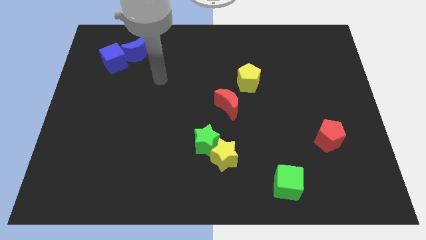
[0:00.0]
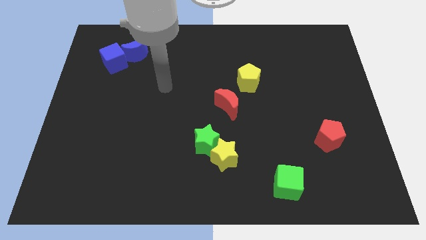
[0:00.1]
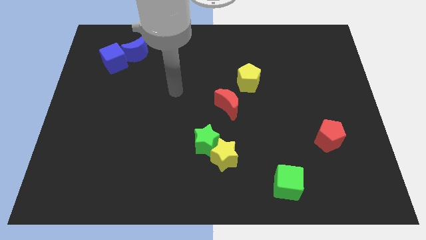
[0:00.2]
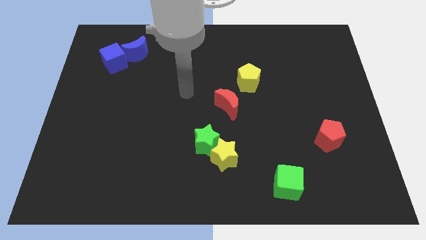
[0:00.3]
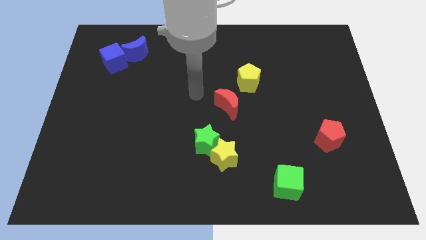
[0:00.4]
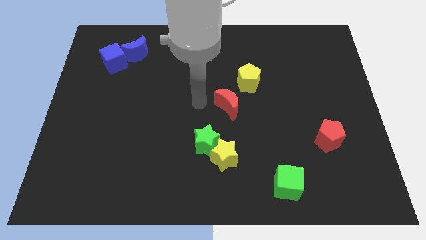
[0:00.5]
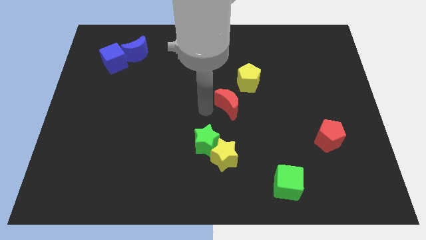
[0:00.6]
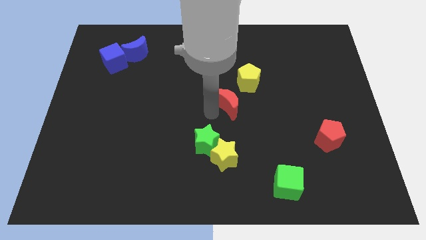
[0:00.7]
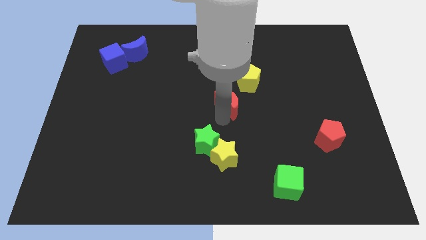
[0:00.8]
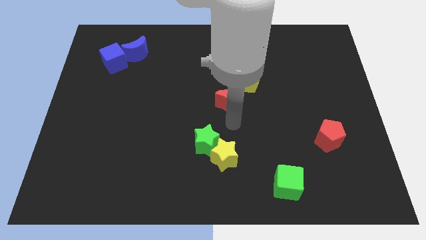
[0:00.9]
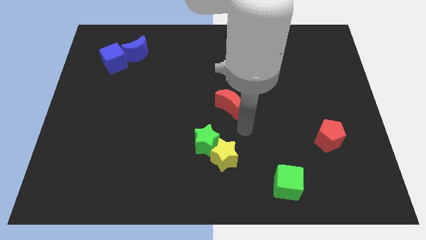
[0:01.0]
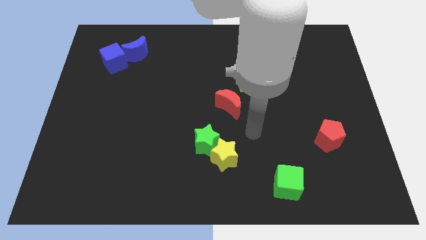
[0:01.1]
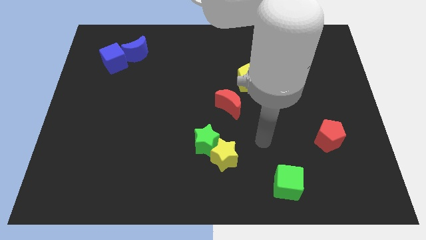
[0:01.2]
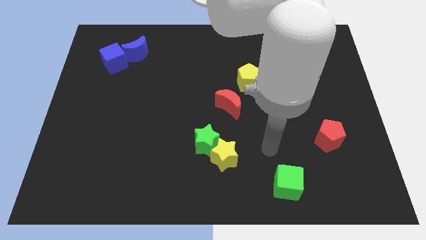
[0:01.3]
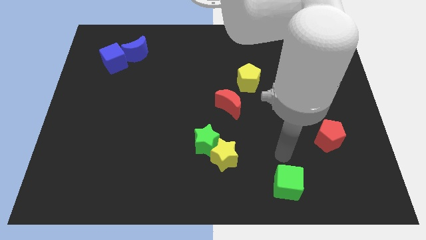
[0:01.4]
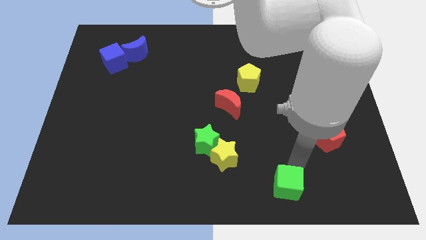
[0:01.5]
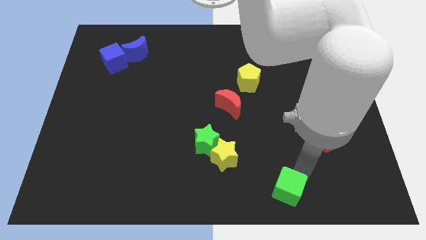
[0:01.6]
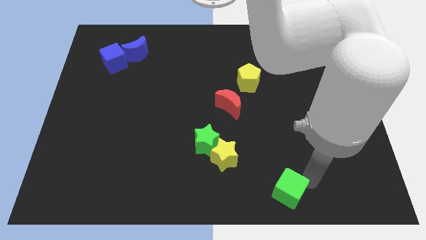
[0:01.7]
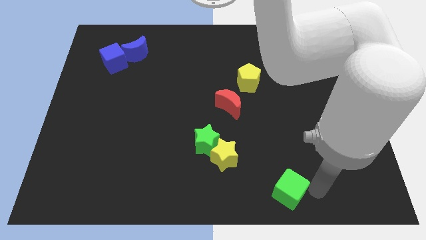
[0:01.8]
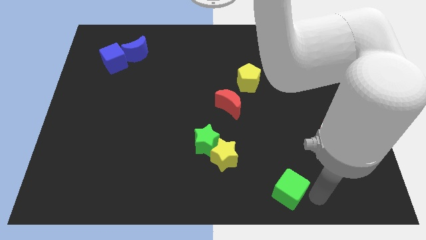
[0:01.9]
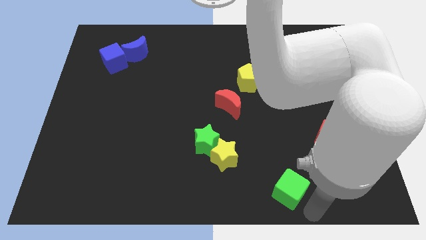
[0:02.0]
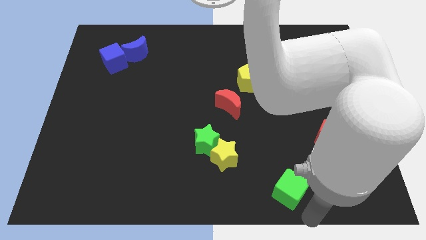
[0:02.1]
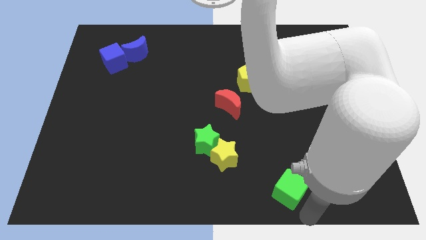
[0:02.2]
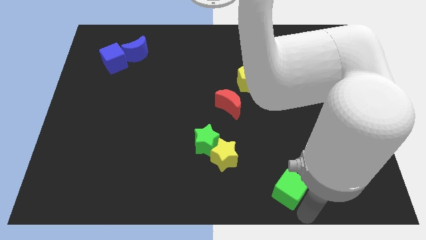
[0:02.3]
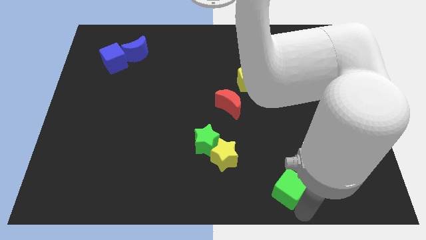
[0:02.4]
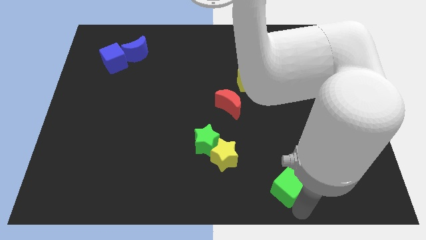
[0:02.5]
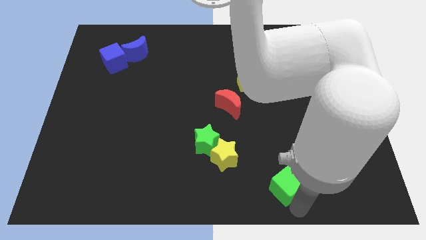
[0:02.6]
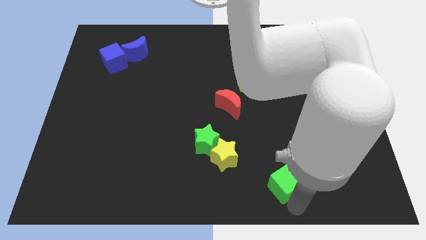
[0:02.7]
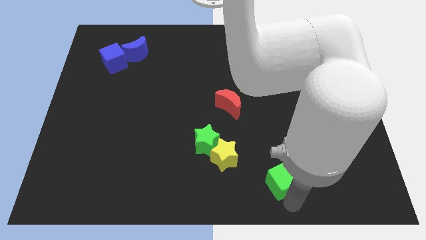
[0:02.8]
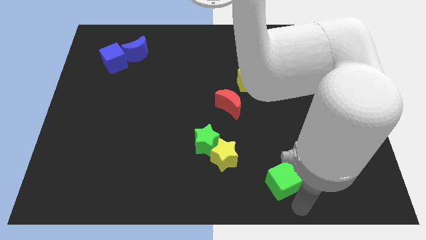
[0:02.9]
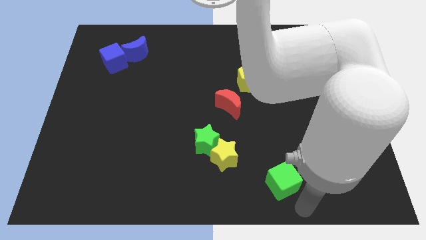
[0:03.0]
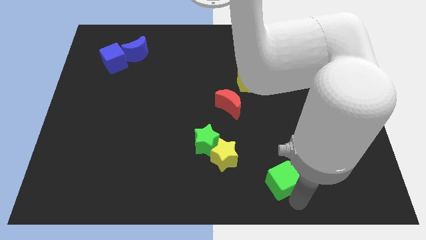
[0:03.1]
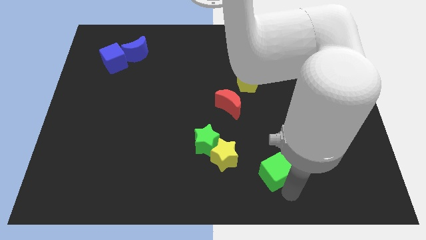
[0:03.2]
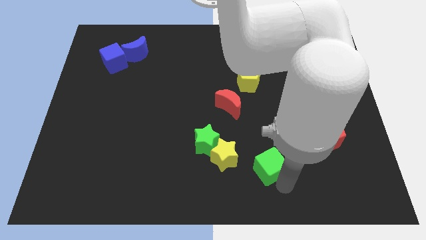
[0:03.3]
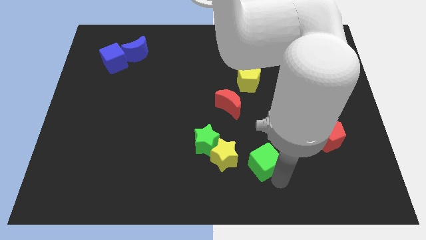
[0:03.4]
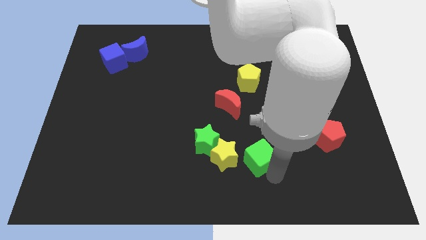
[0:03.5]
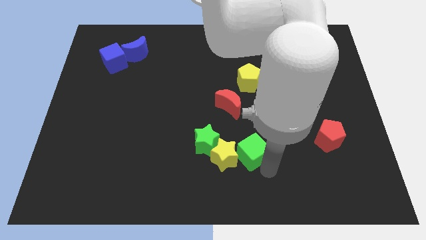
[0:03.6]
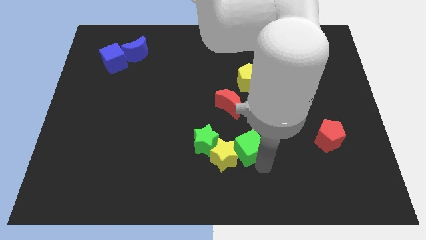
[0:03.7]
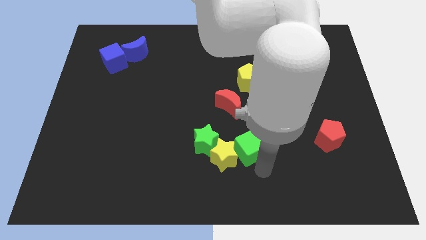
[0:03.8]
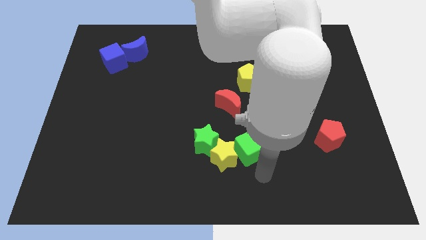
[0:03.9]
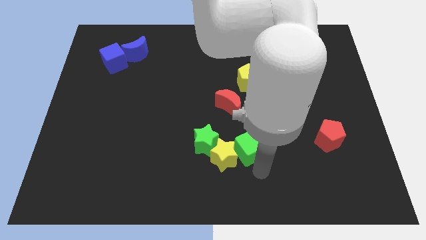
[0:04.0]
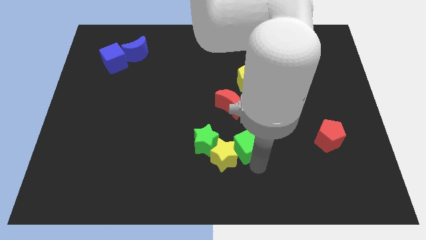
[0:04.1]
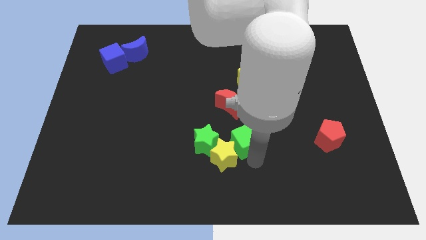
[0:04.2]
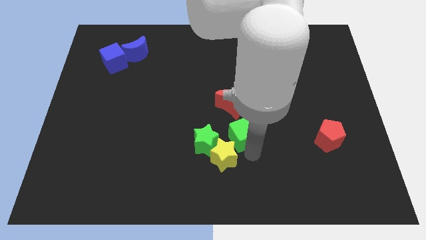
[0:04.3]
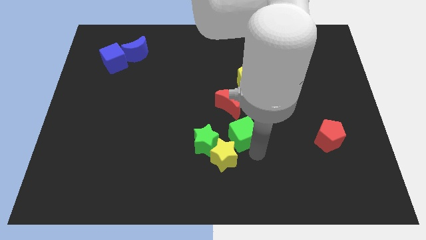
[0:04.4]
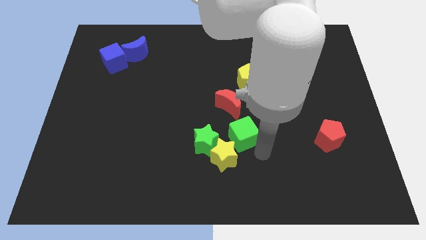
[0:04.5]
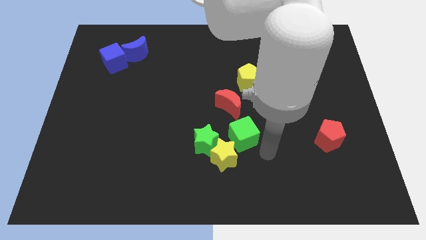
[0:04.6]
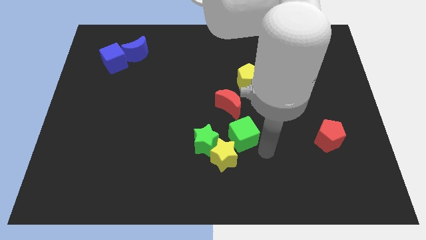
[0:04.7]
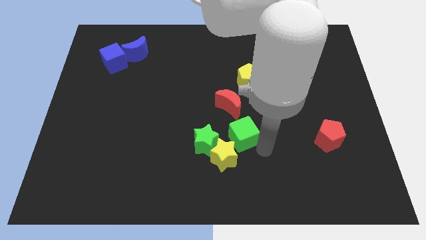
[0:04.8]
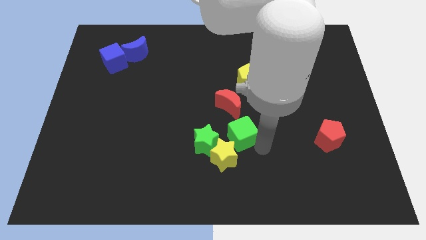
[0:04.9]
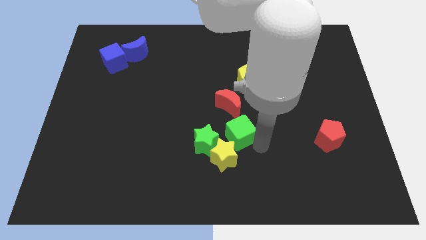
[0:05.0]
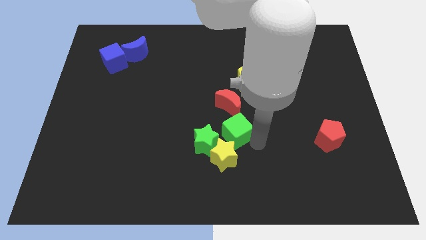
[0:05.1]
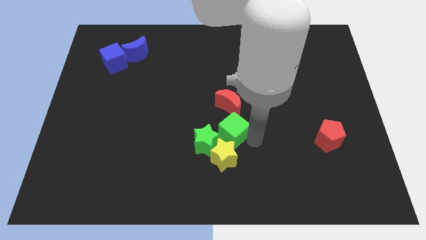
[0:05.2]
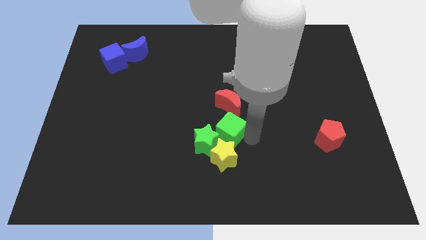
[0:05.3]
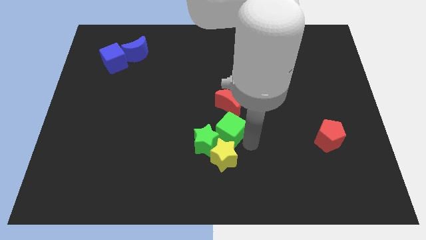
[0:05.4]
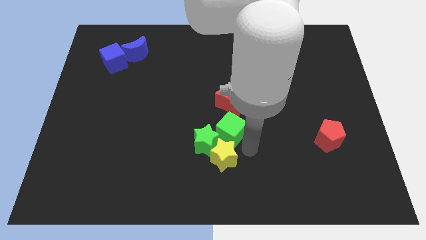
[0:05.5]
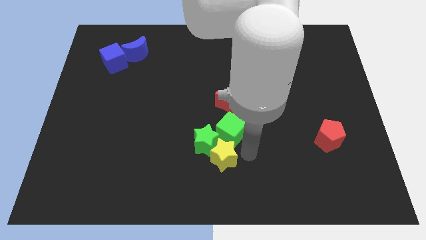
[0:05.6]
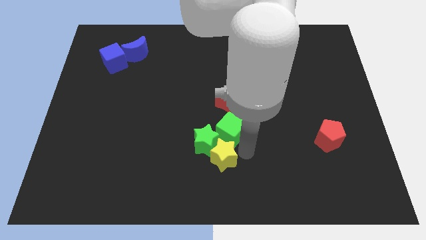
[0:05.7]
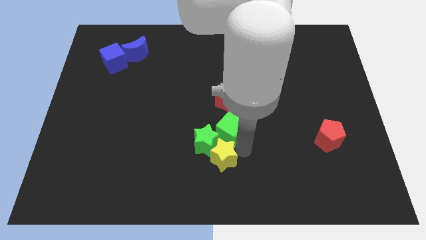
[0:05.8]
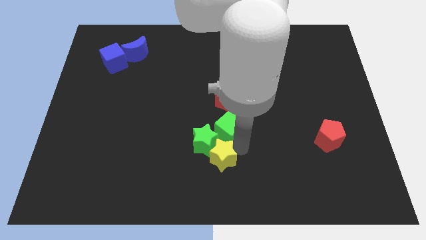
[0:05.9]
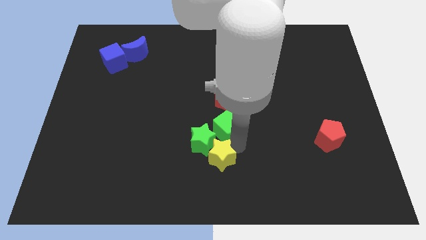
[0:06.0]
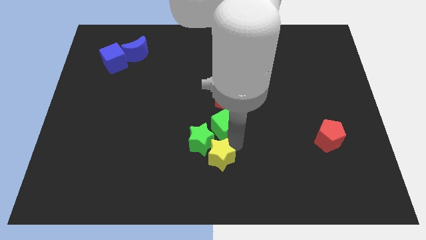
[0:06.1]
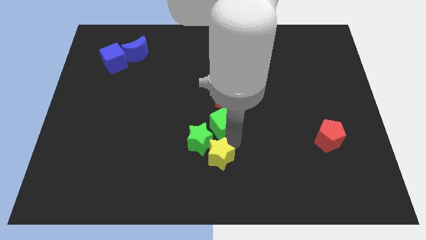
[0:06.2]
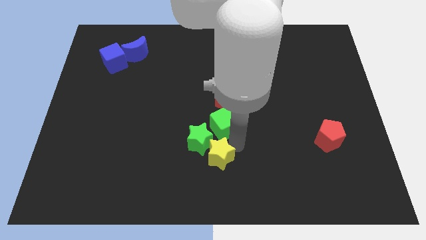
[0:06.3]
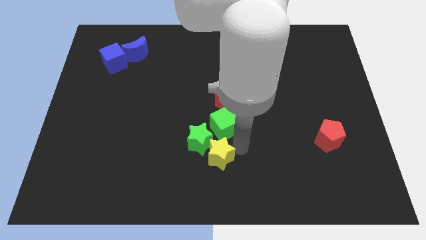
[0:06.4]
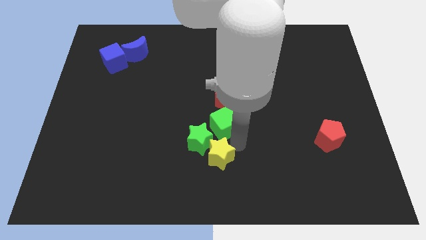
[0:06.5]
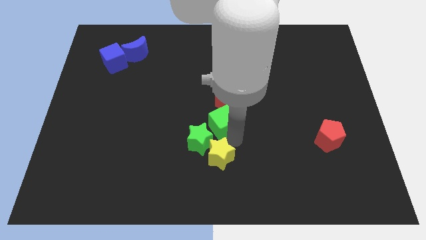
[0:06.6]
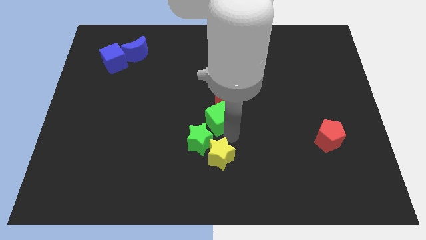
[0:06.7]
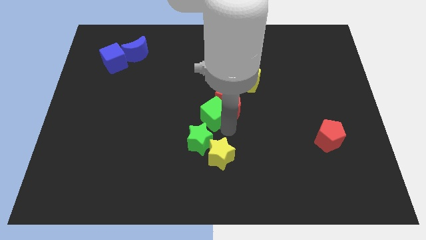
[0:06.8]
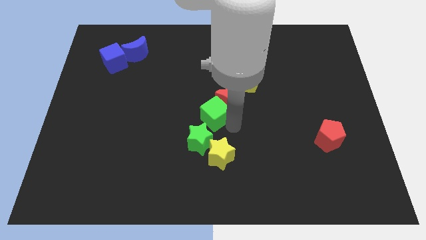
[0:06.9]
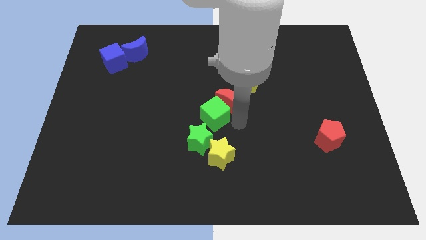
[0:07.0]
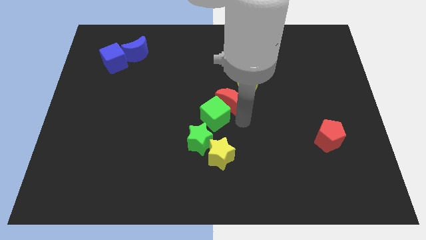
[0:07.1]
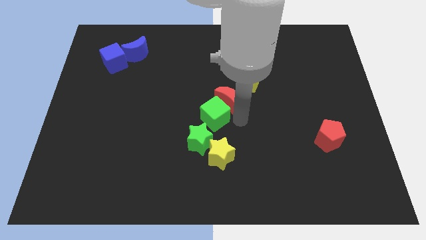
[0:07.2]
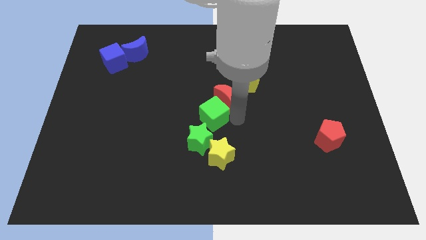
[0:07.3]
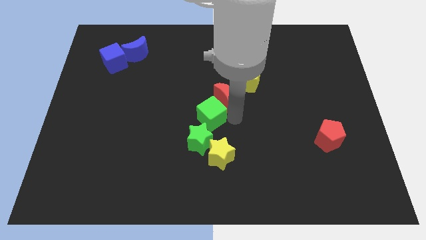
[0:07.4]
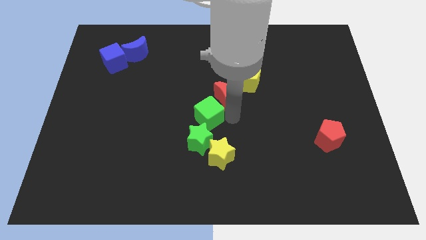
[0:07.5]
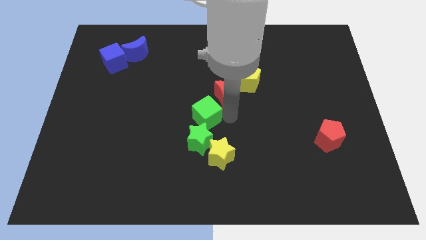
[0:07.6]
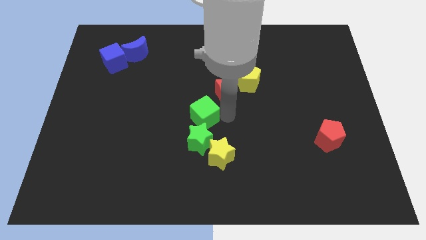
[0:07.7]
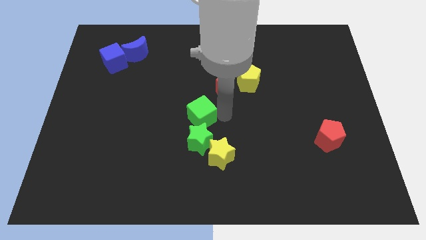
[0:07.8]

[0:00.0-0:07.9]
move the green cube diagonally up and to the left of the green star
